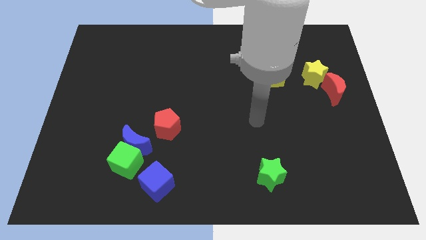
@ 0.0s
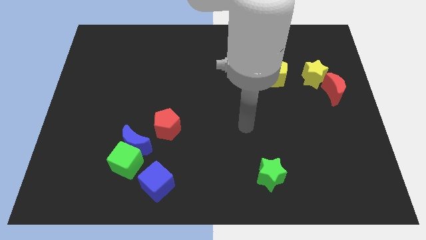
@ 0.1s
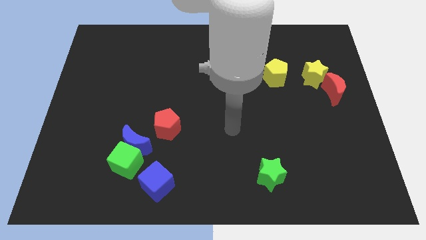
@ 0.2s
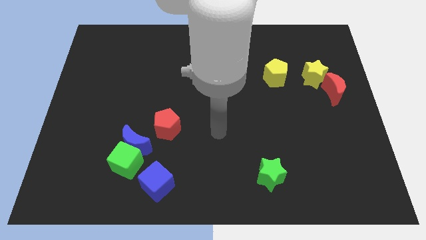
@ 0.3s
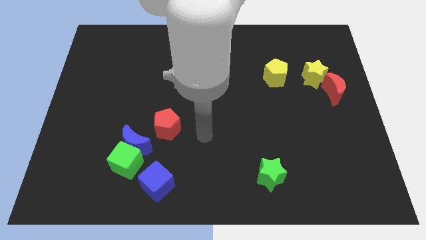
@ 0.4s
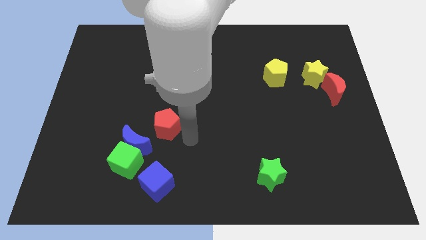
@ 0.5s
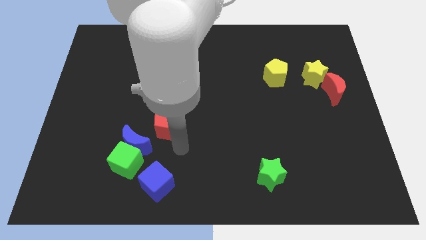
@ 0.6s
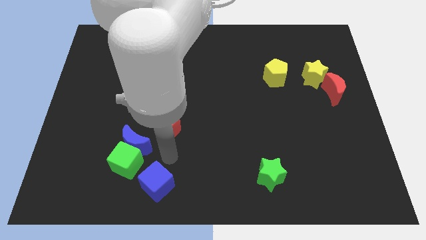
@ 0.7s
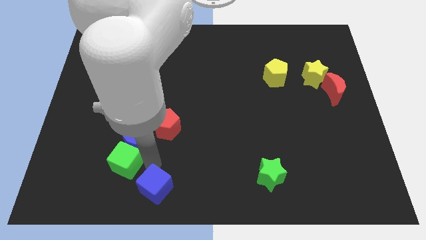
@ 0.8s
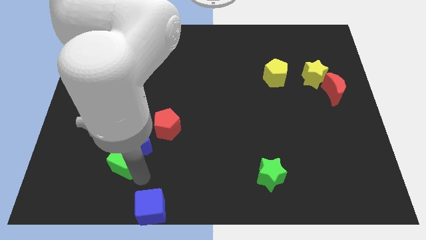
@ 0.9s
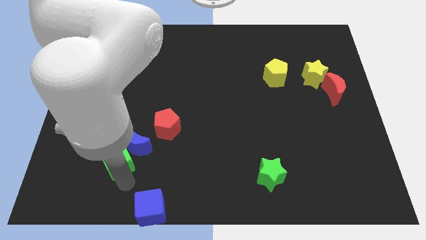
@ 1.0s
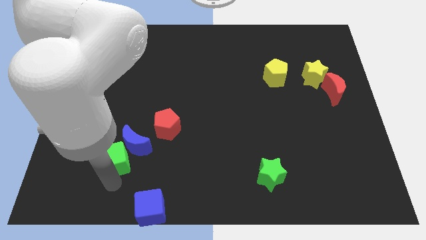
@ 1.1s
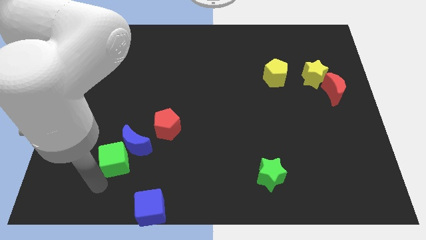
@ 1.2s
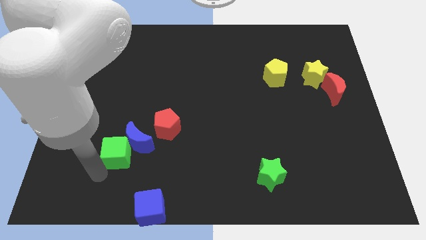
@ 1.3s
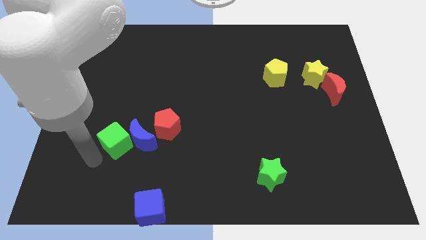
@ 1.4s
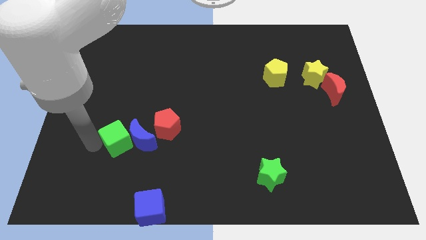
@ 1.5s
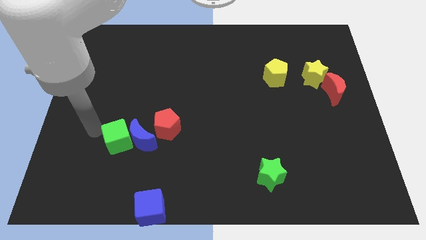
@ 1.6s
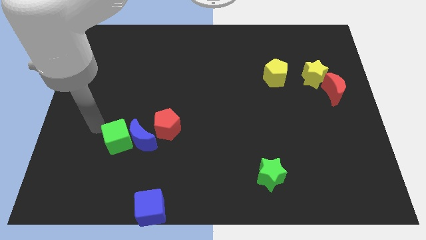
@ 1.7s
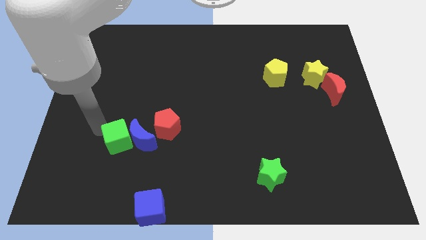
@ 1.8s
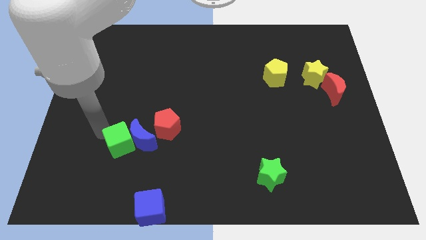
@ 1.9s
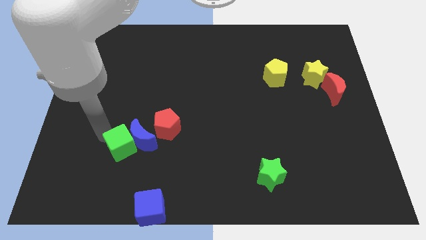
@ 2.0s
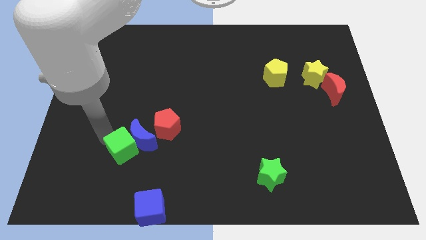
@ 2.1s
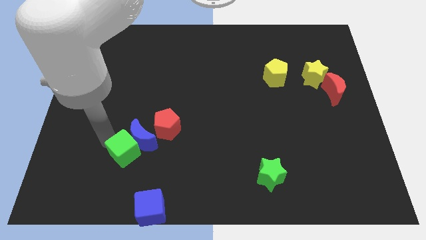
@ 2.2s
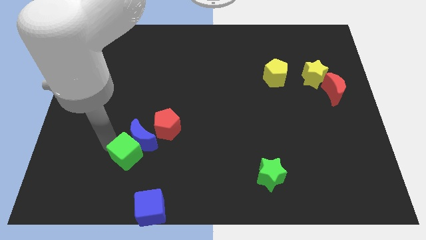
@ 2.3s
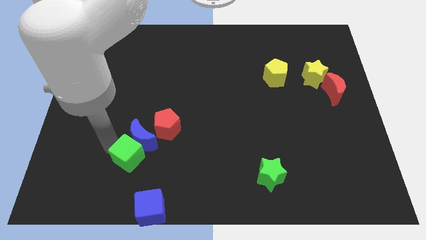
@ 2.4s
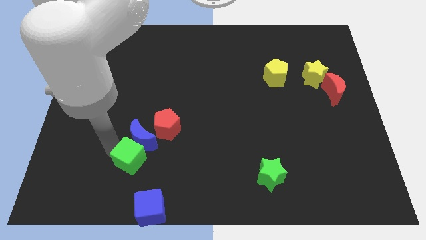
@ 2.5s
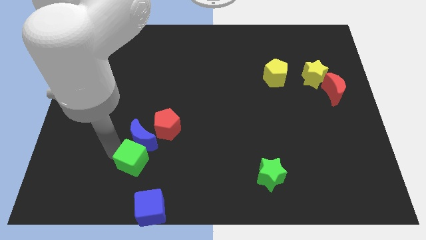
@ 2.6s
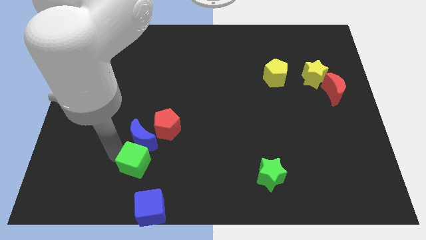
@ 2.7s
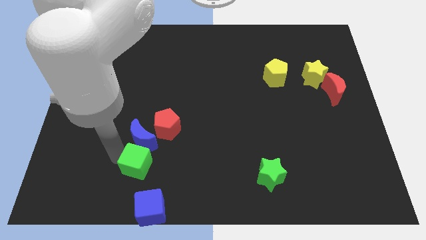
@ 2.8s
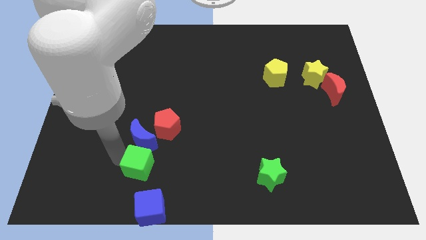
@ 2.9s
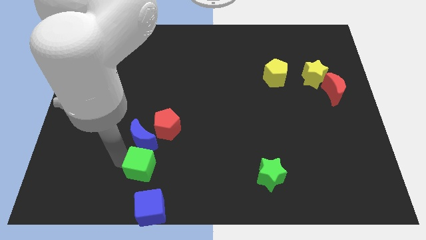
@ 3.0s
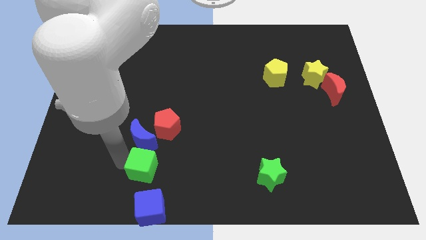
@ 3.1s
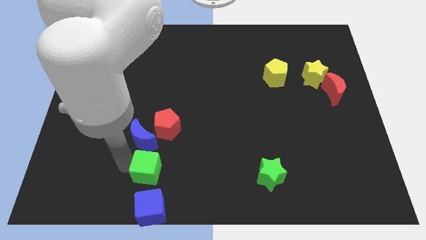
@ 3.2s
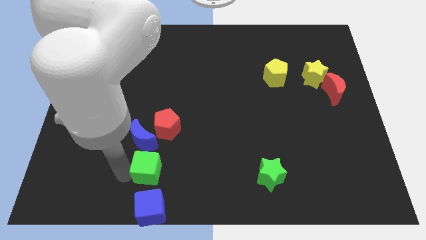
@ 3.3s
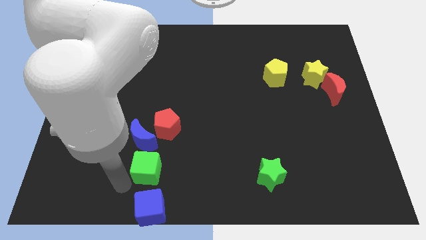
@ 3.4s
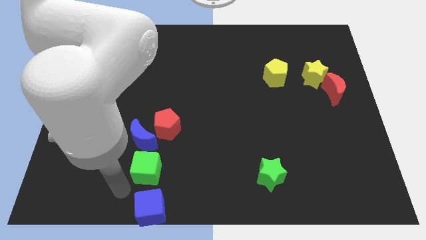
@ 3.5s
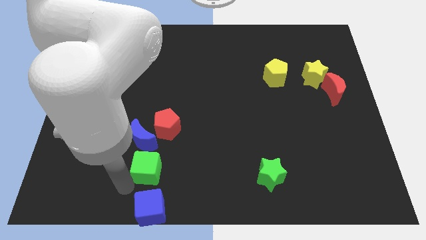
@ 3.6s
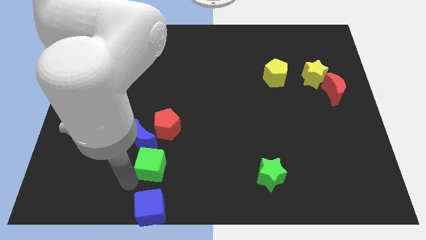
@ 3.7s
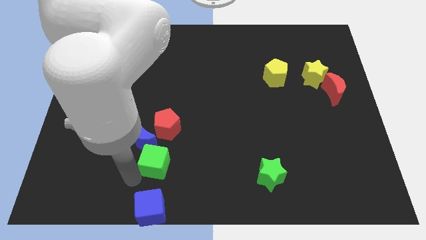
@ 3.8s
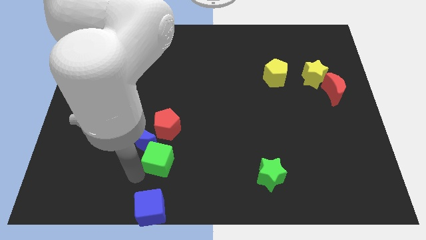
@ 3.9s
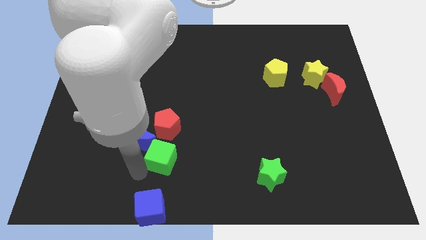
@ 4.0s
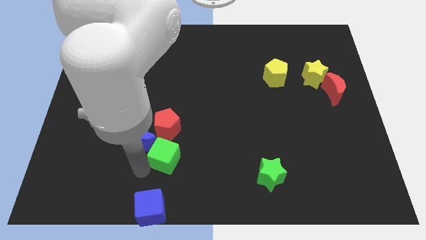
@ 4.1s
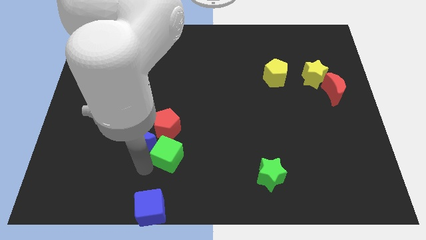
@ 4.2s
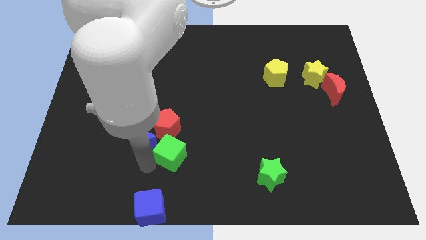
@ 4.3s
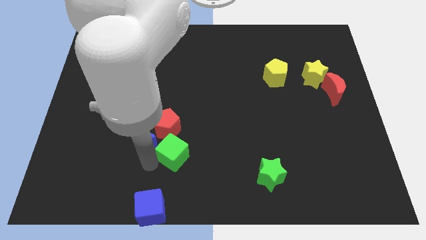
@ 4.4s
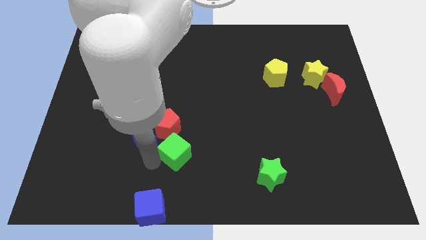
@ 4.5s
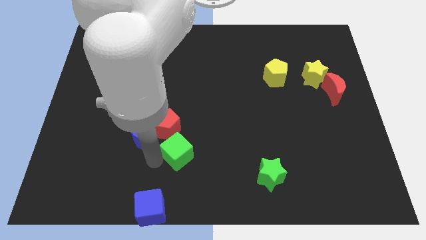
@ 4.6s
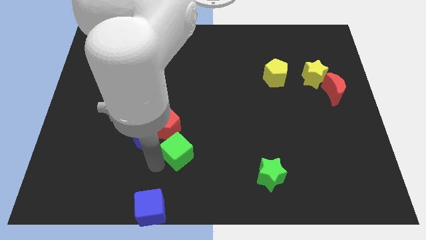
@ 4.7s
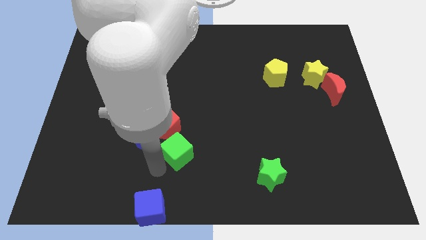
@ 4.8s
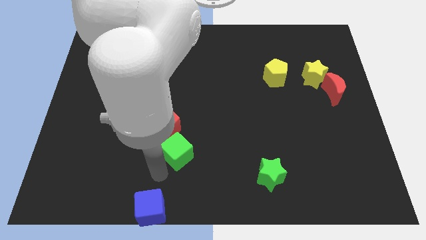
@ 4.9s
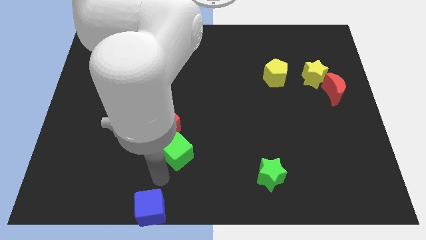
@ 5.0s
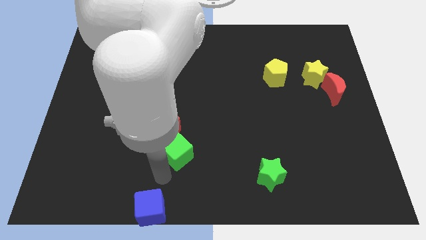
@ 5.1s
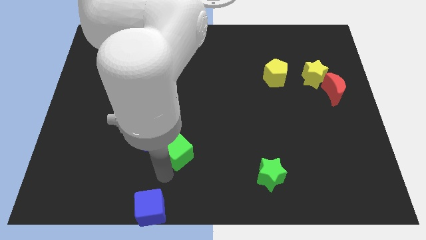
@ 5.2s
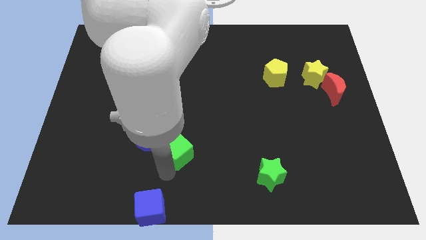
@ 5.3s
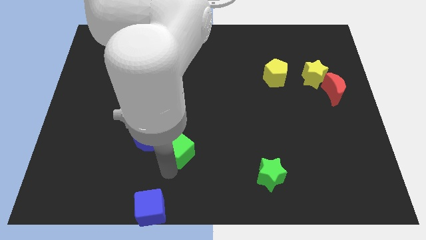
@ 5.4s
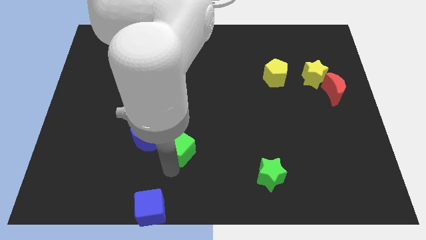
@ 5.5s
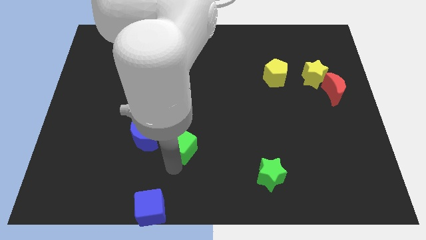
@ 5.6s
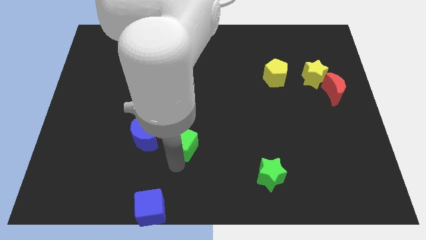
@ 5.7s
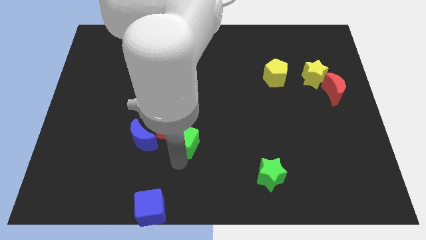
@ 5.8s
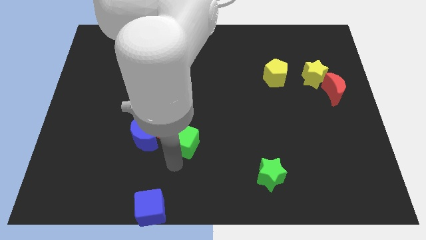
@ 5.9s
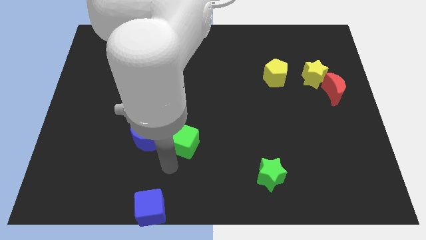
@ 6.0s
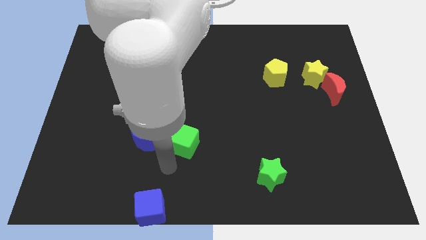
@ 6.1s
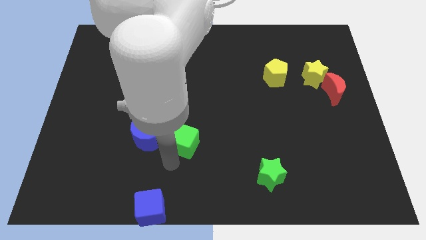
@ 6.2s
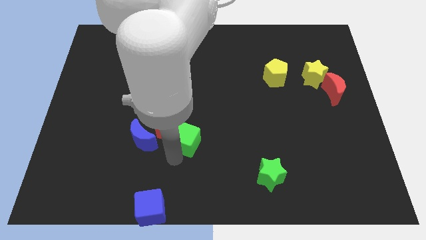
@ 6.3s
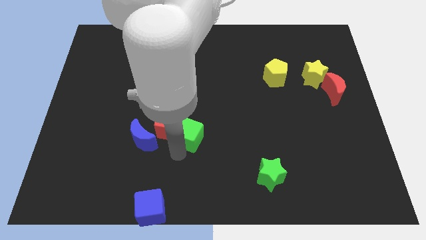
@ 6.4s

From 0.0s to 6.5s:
move the green cube to the center of the board
